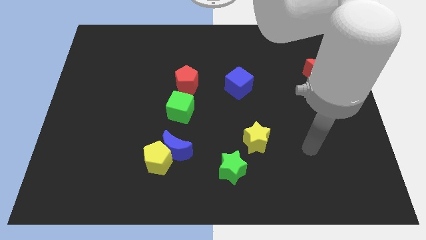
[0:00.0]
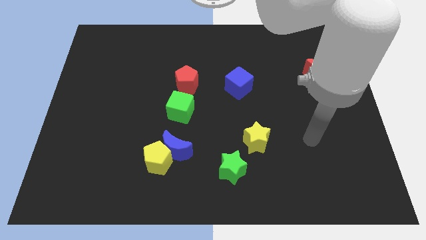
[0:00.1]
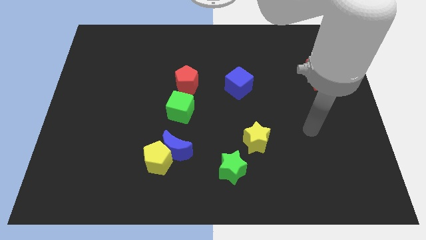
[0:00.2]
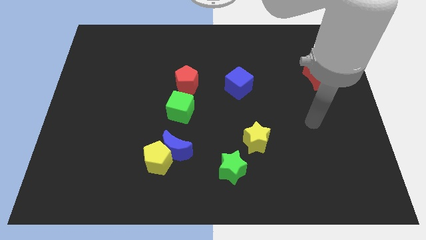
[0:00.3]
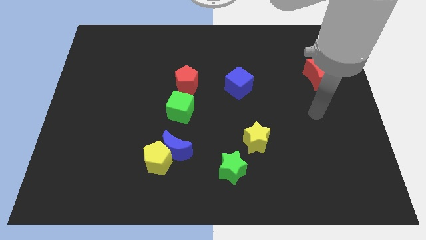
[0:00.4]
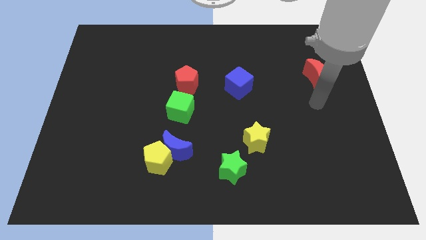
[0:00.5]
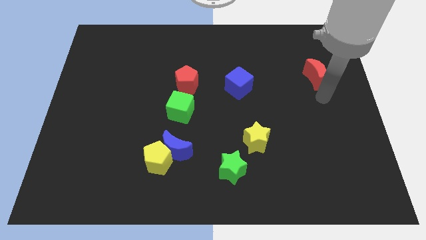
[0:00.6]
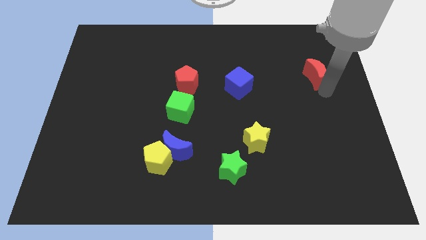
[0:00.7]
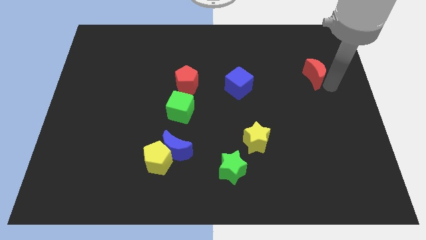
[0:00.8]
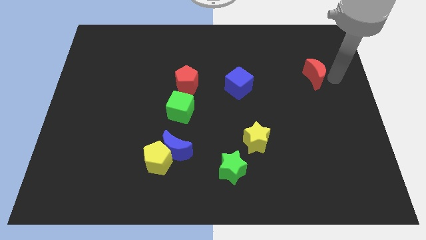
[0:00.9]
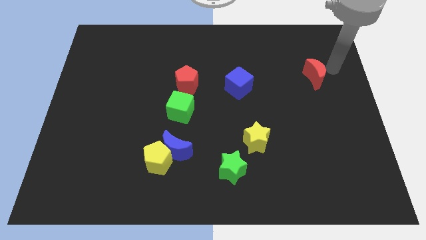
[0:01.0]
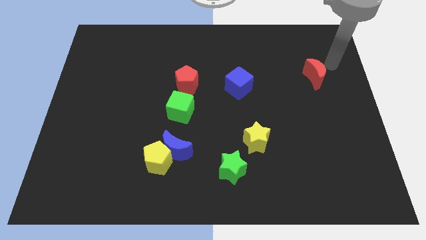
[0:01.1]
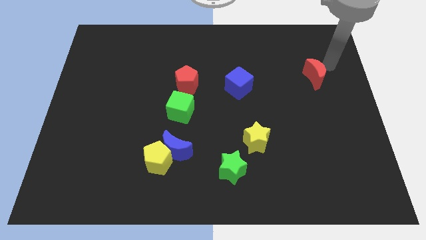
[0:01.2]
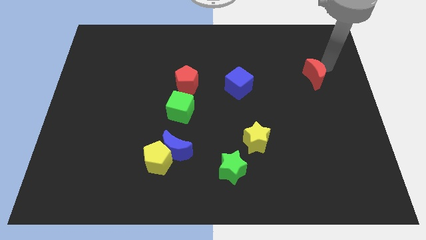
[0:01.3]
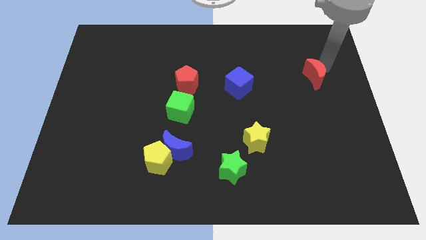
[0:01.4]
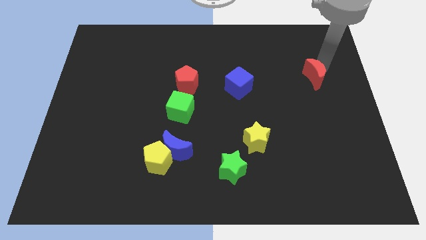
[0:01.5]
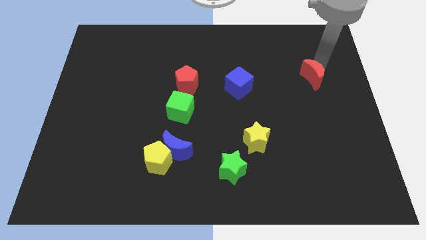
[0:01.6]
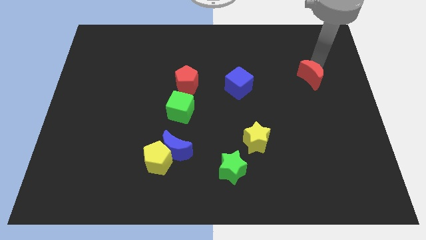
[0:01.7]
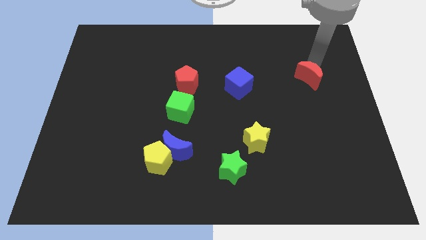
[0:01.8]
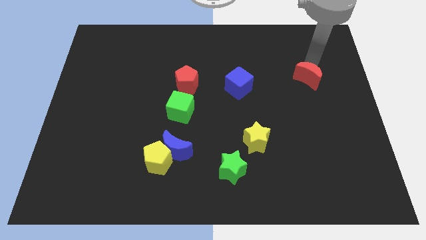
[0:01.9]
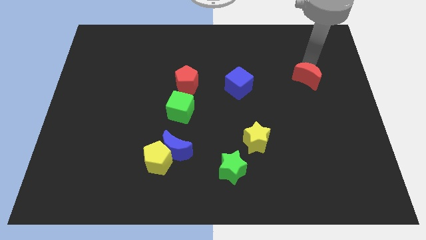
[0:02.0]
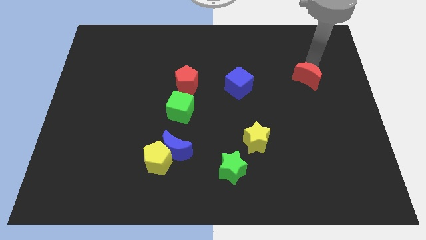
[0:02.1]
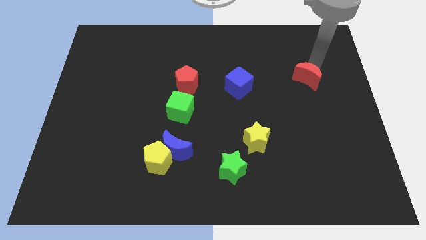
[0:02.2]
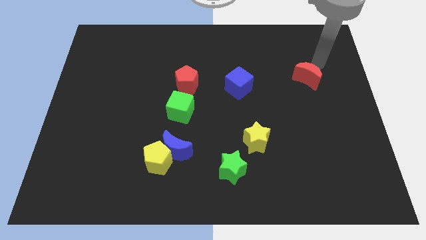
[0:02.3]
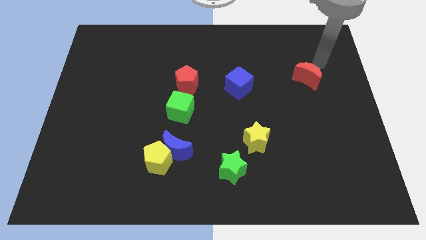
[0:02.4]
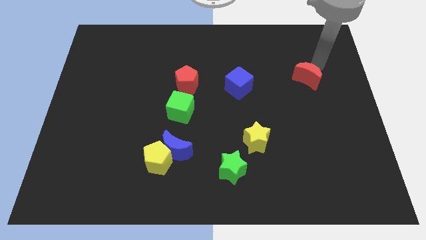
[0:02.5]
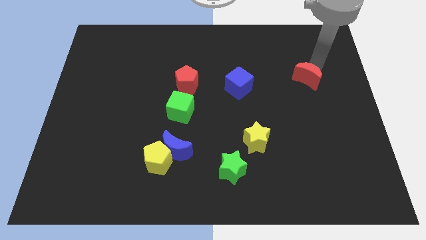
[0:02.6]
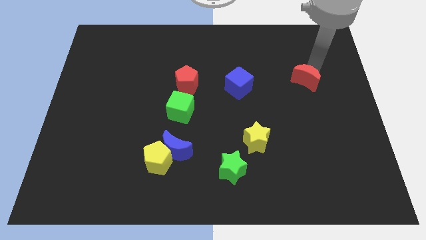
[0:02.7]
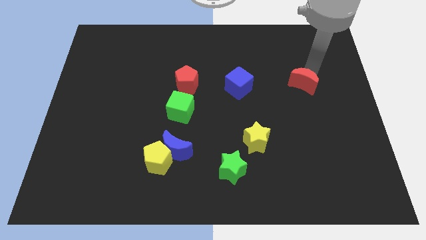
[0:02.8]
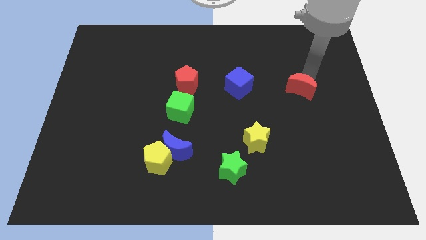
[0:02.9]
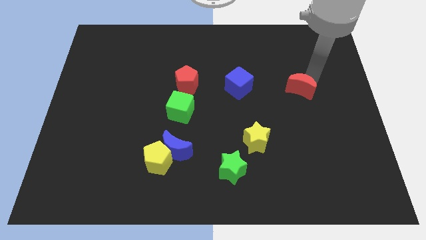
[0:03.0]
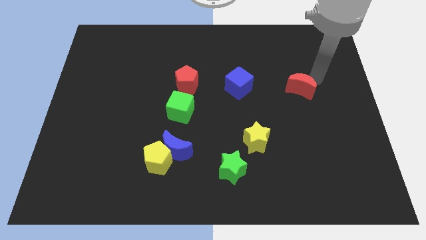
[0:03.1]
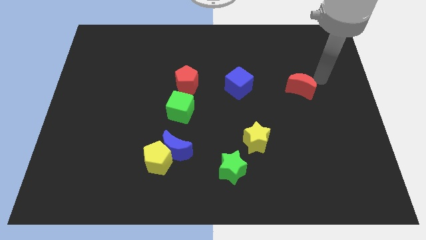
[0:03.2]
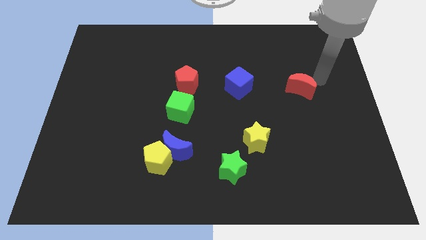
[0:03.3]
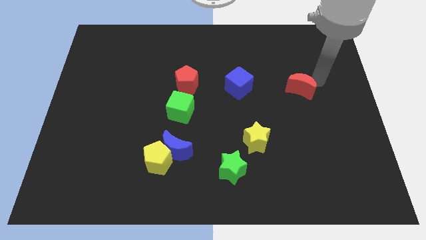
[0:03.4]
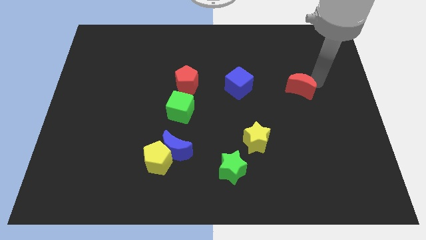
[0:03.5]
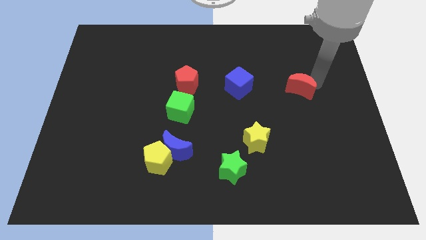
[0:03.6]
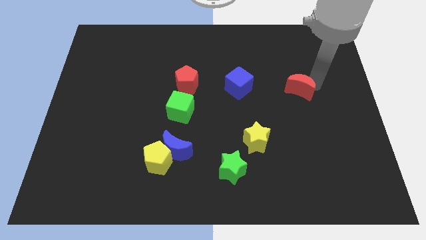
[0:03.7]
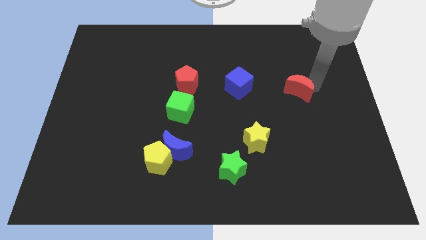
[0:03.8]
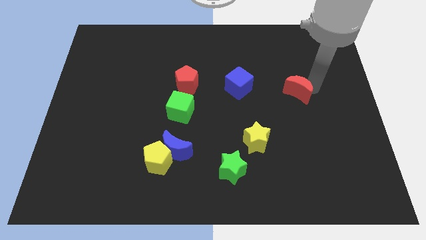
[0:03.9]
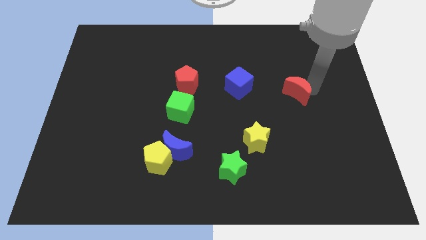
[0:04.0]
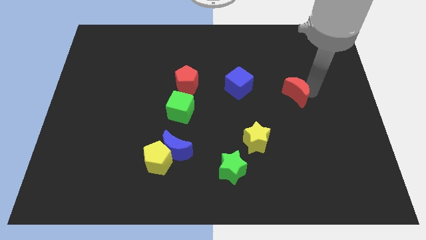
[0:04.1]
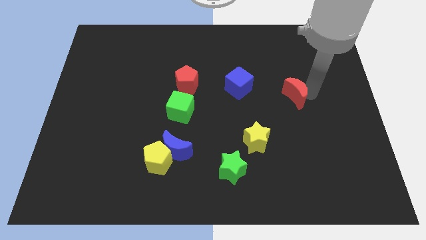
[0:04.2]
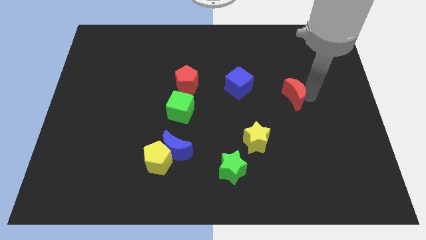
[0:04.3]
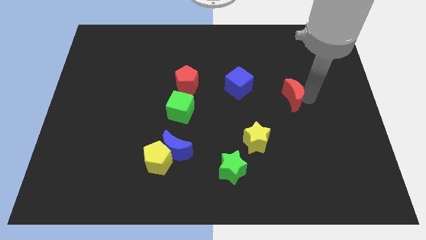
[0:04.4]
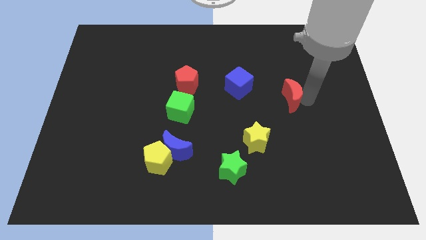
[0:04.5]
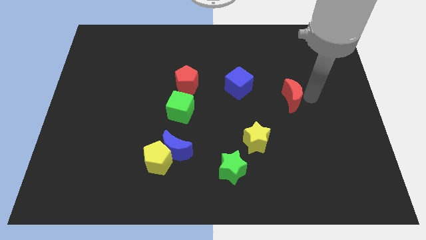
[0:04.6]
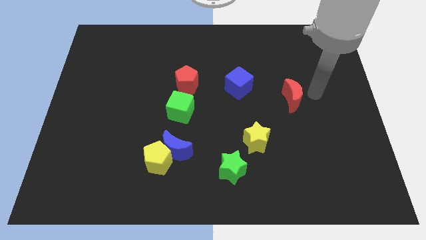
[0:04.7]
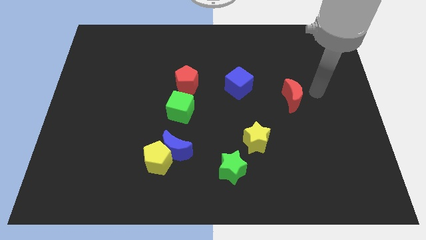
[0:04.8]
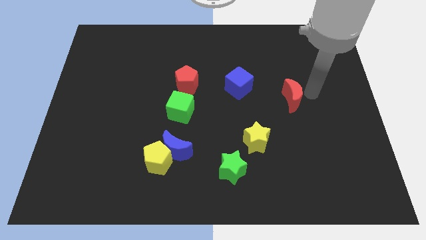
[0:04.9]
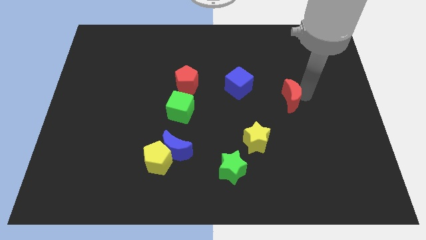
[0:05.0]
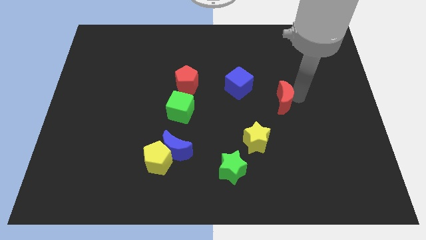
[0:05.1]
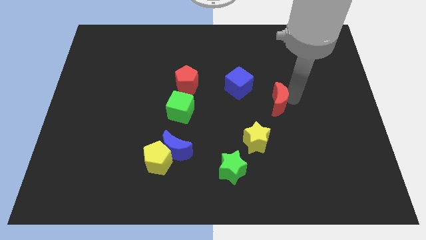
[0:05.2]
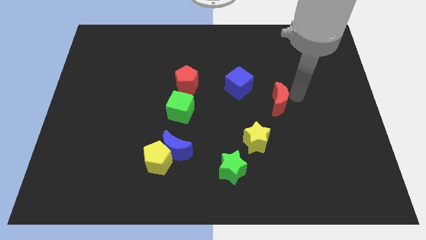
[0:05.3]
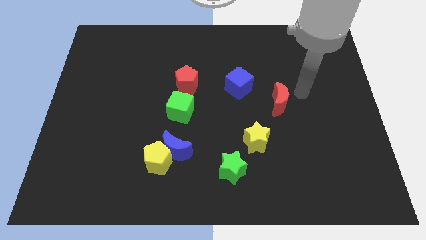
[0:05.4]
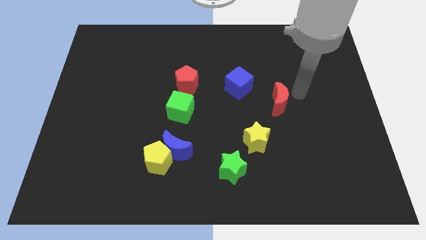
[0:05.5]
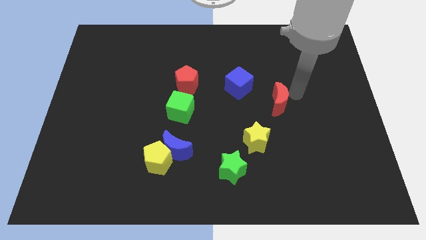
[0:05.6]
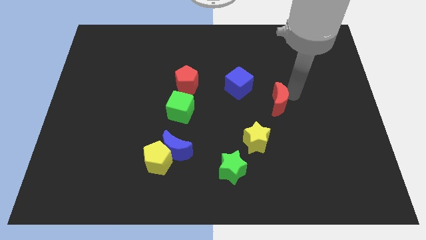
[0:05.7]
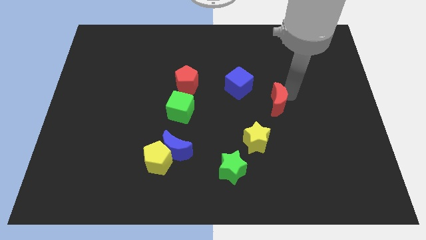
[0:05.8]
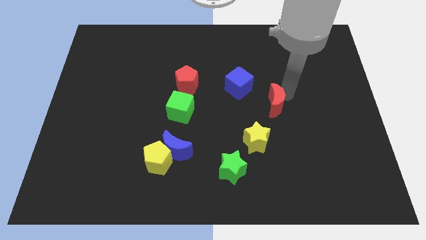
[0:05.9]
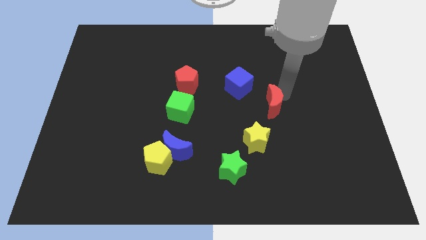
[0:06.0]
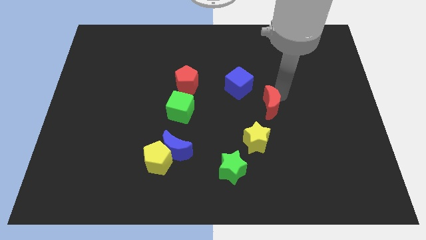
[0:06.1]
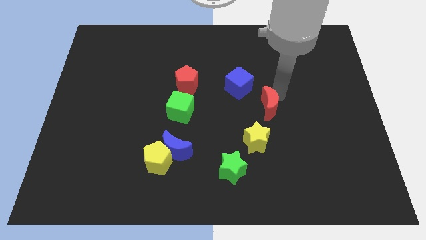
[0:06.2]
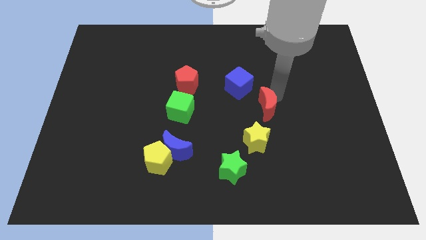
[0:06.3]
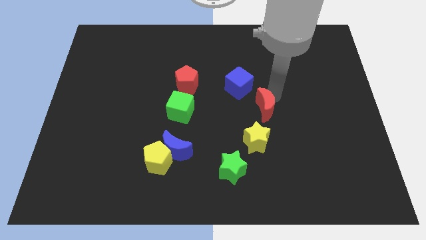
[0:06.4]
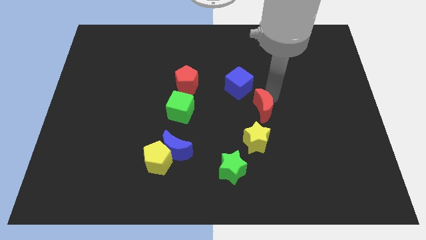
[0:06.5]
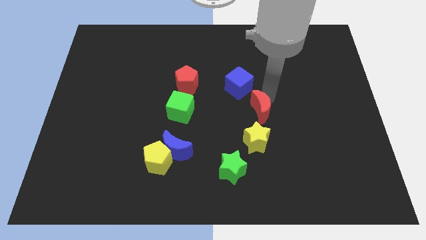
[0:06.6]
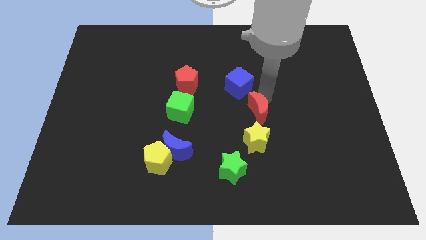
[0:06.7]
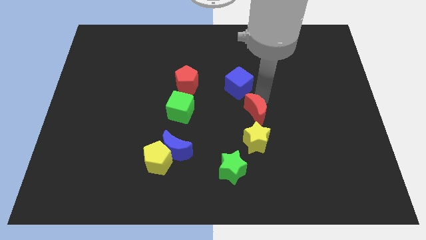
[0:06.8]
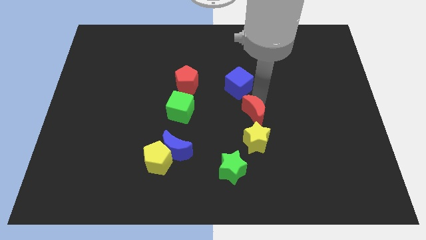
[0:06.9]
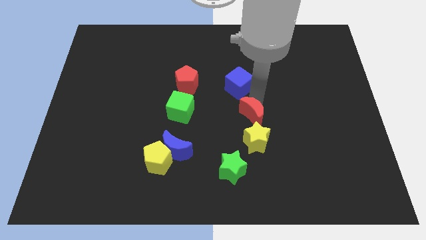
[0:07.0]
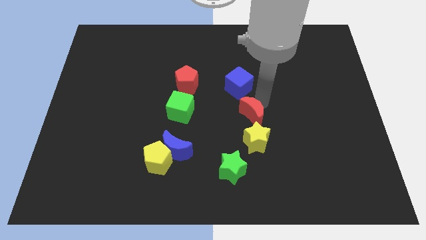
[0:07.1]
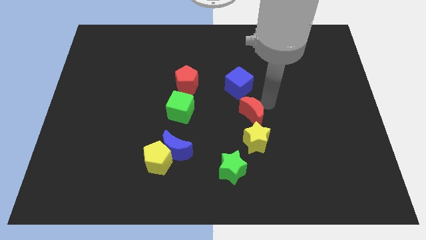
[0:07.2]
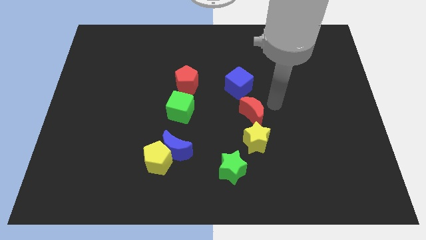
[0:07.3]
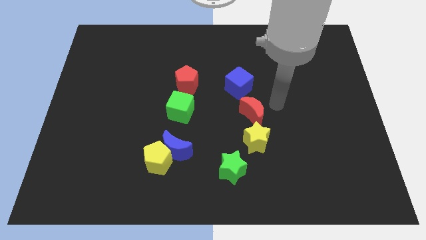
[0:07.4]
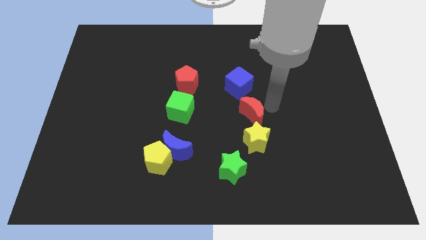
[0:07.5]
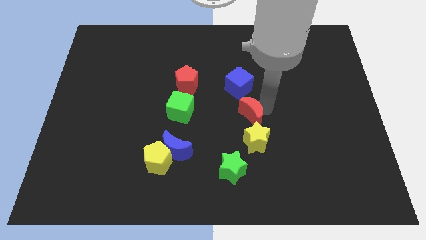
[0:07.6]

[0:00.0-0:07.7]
push the red moon to the top left of the yellow star
